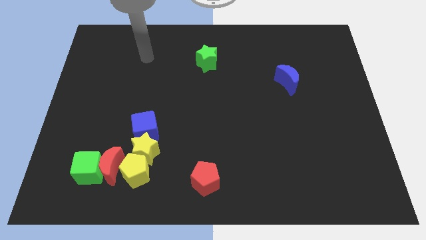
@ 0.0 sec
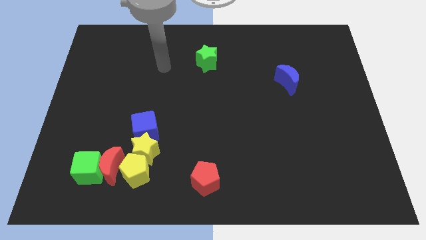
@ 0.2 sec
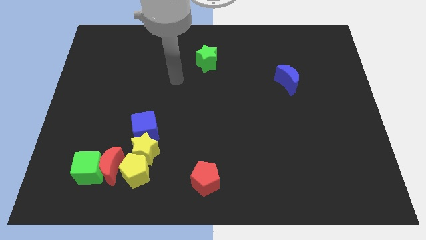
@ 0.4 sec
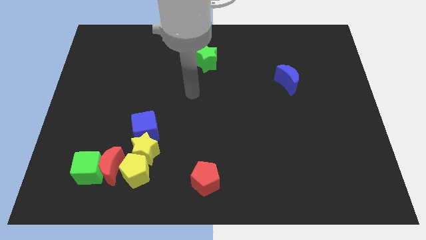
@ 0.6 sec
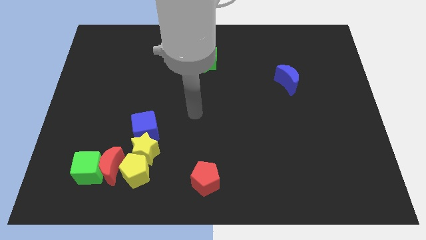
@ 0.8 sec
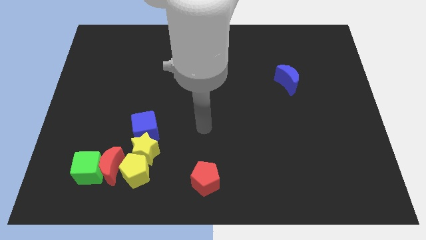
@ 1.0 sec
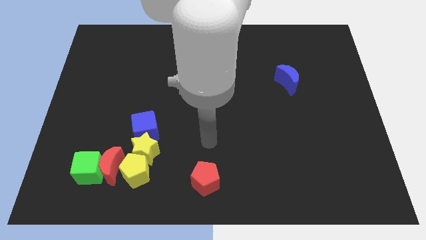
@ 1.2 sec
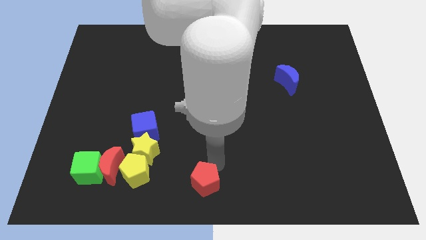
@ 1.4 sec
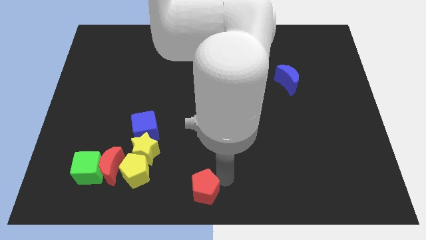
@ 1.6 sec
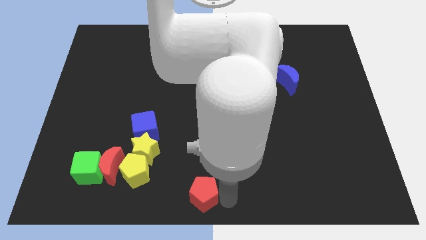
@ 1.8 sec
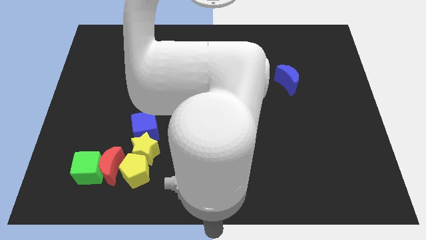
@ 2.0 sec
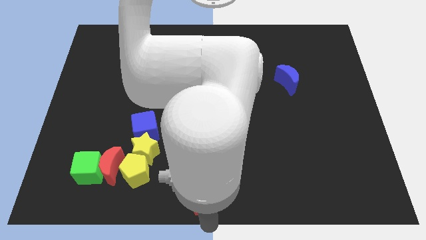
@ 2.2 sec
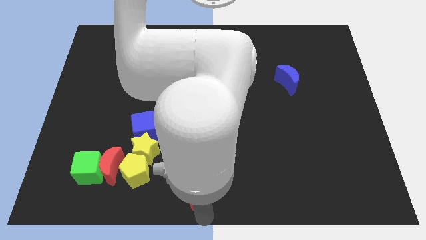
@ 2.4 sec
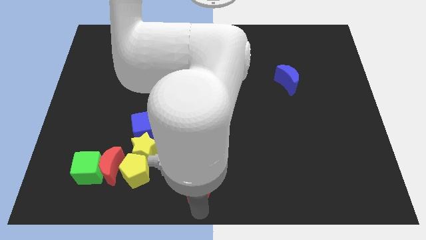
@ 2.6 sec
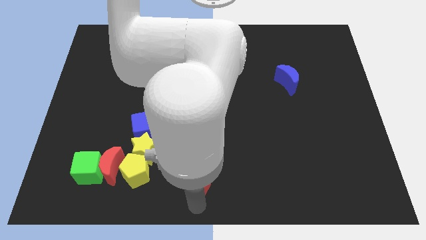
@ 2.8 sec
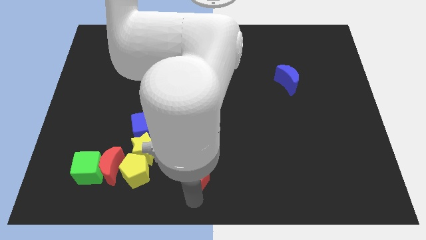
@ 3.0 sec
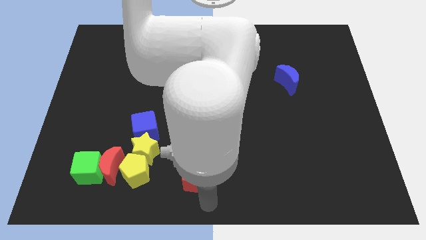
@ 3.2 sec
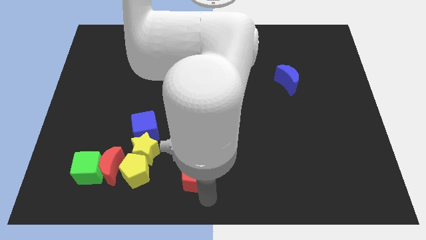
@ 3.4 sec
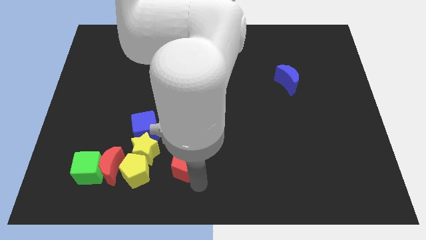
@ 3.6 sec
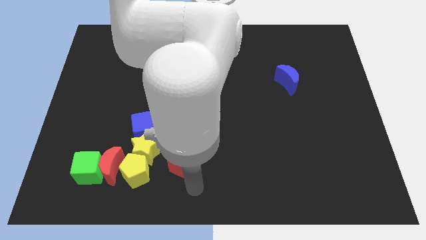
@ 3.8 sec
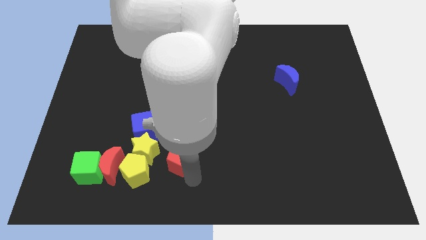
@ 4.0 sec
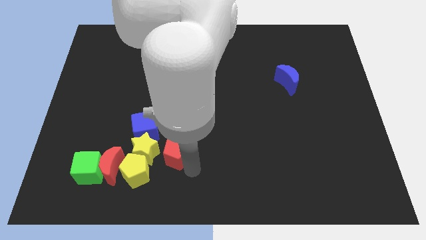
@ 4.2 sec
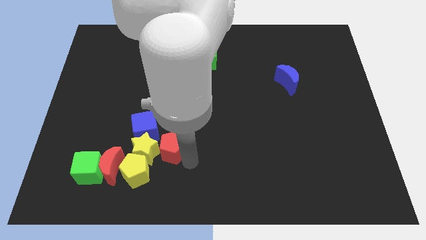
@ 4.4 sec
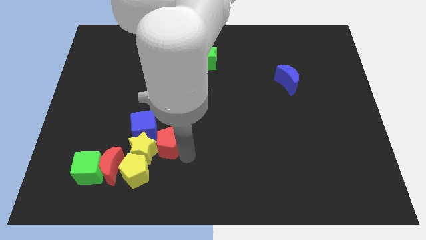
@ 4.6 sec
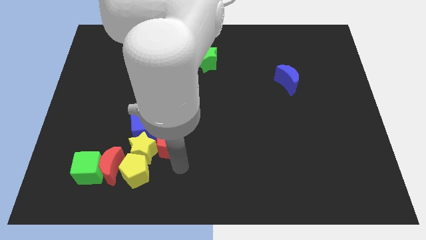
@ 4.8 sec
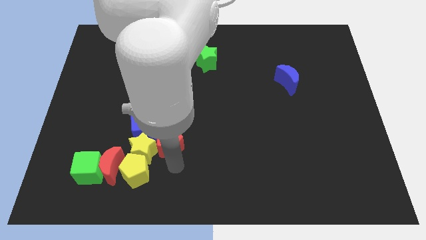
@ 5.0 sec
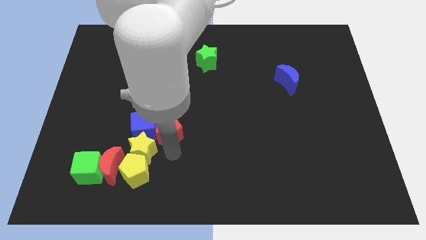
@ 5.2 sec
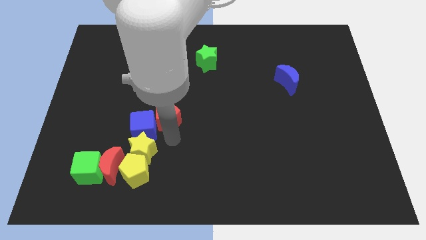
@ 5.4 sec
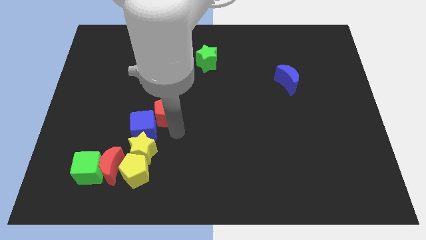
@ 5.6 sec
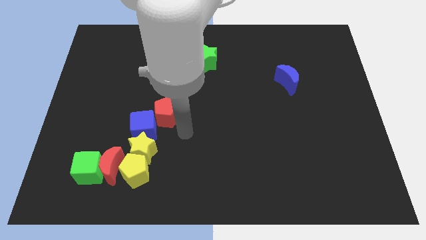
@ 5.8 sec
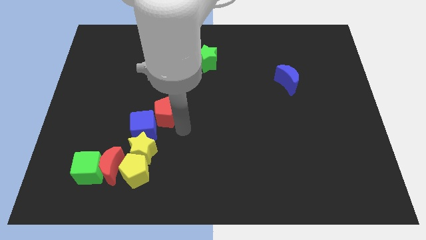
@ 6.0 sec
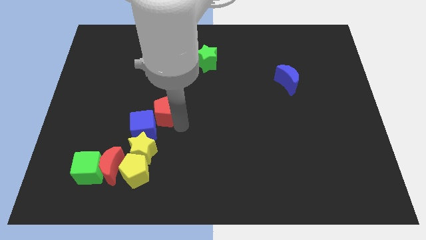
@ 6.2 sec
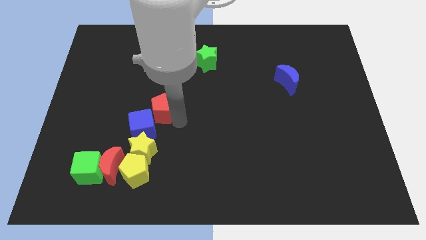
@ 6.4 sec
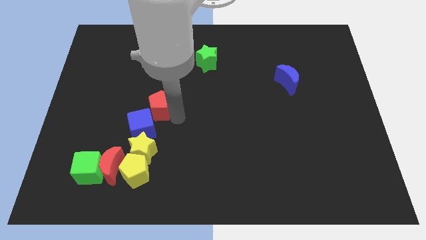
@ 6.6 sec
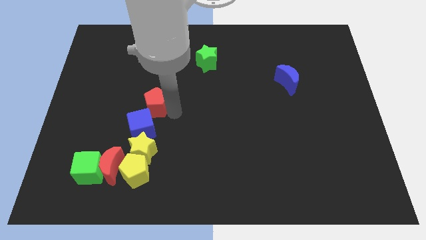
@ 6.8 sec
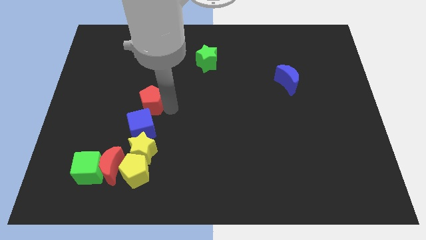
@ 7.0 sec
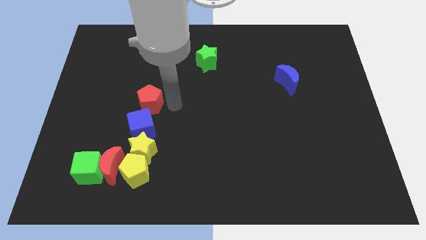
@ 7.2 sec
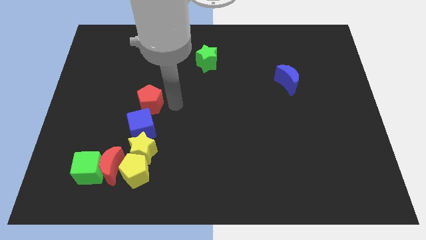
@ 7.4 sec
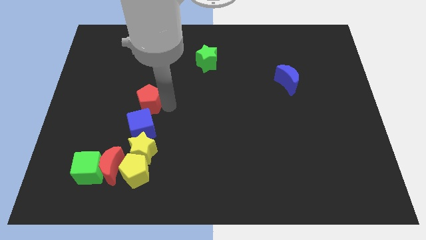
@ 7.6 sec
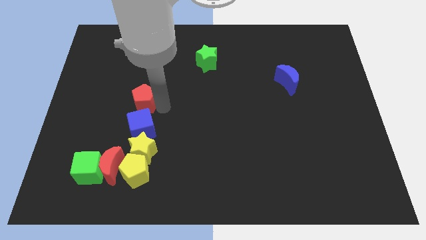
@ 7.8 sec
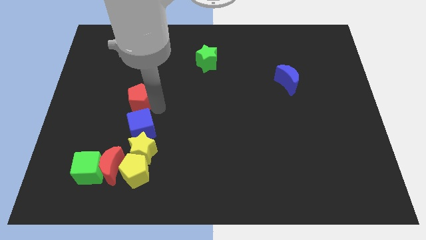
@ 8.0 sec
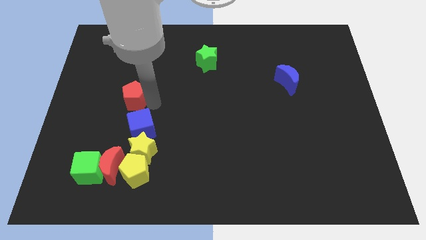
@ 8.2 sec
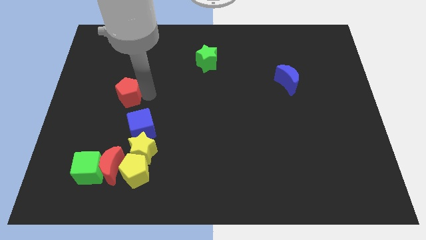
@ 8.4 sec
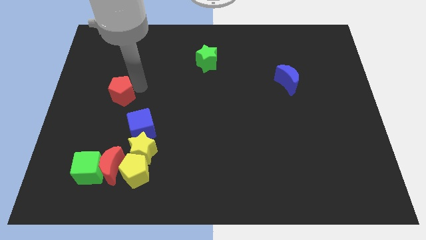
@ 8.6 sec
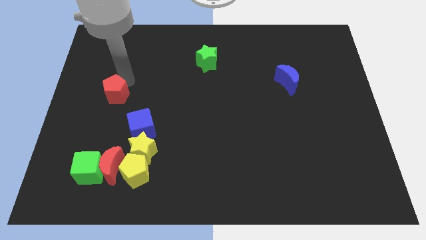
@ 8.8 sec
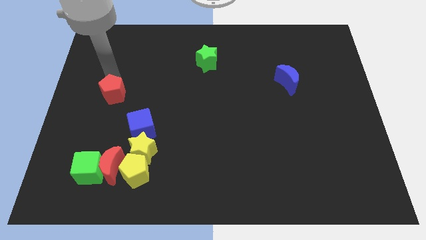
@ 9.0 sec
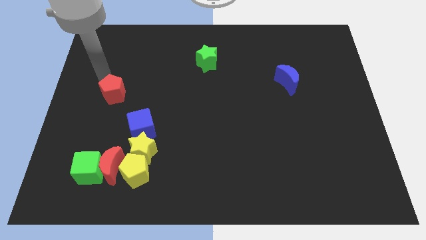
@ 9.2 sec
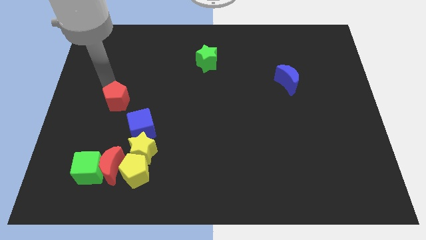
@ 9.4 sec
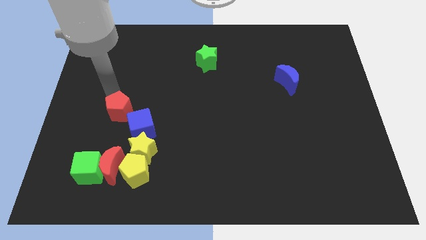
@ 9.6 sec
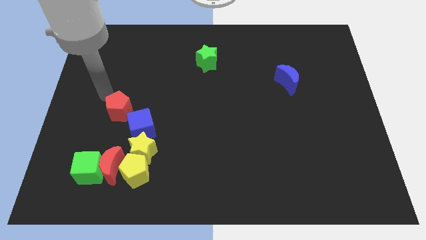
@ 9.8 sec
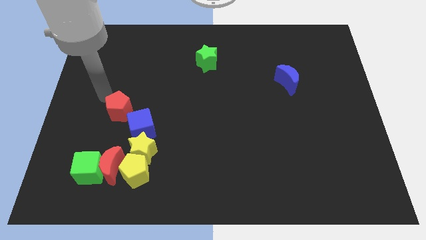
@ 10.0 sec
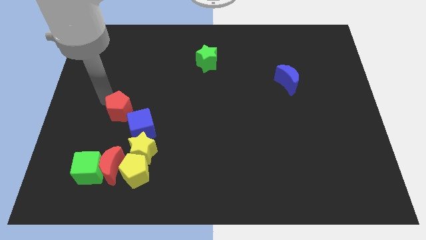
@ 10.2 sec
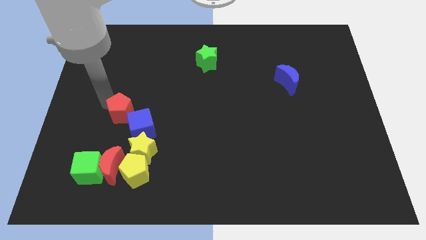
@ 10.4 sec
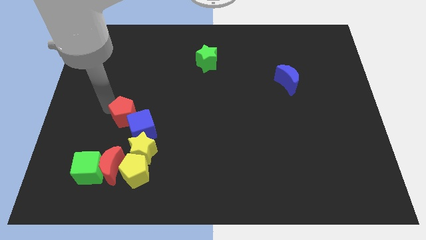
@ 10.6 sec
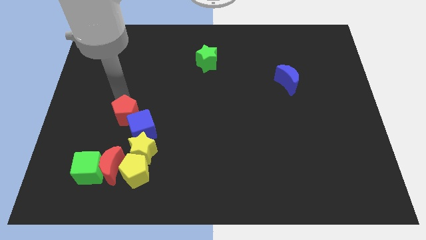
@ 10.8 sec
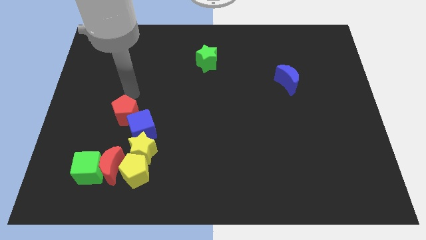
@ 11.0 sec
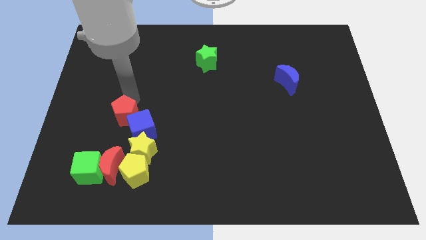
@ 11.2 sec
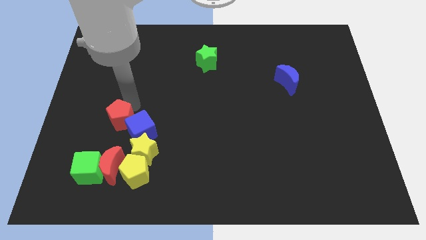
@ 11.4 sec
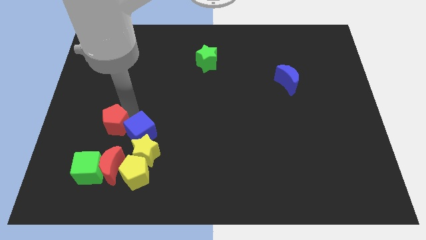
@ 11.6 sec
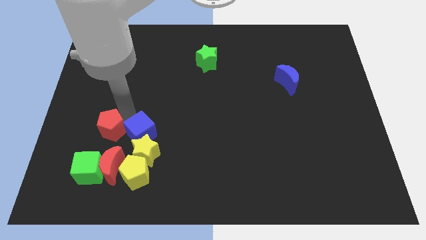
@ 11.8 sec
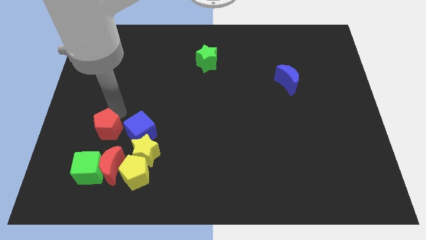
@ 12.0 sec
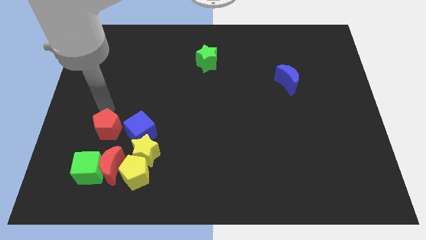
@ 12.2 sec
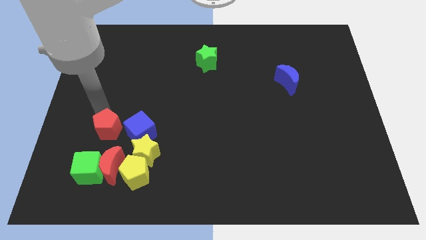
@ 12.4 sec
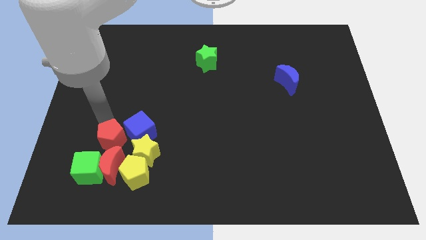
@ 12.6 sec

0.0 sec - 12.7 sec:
move the red pentagon diagonally up and to the left of the yellow pentagon
